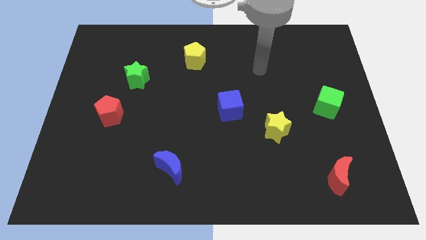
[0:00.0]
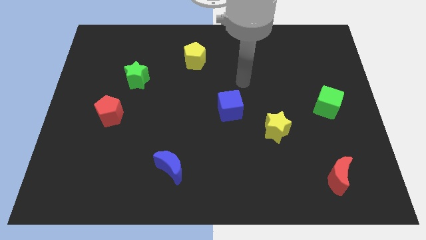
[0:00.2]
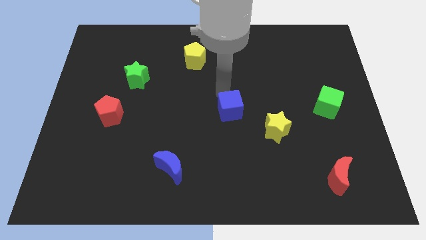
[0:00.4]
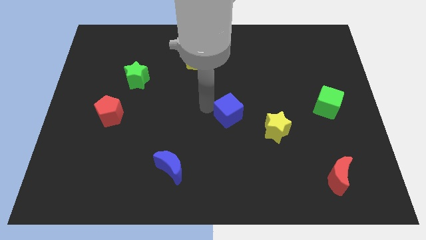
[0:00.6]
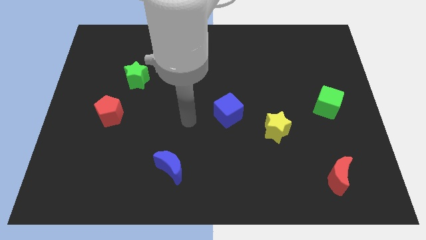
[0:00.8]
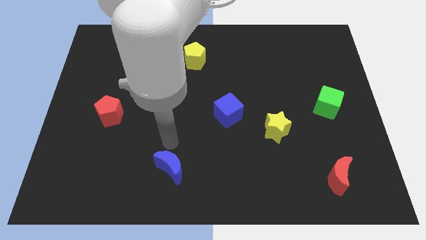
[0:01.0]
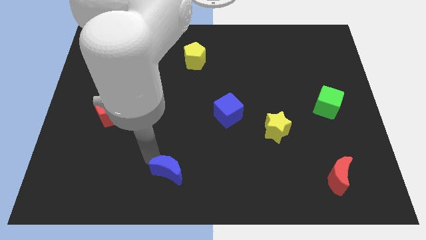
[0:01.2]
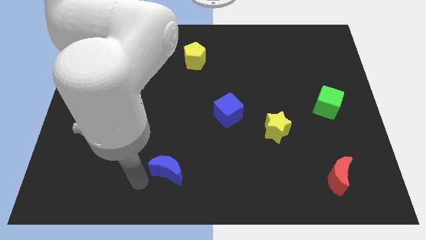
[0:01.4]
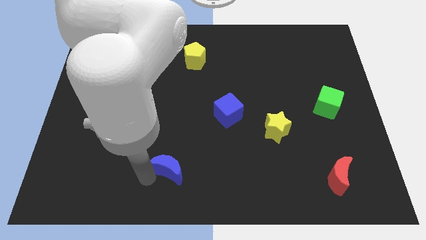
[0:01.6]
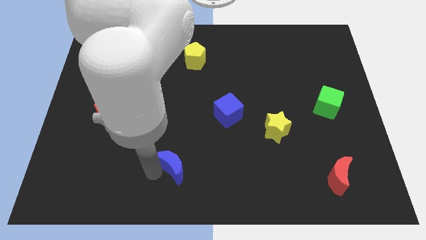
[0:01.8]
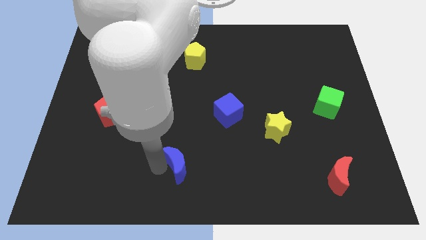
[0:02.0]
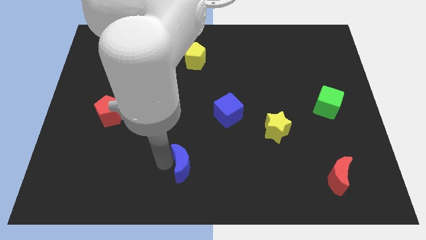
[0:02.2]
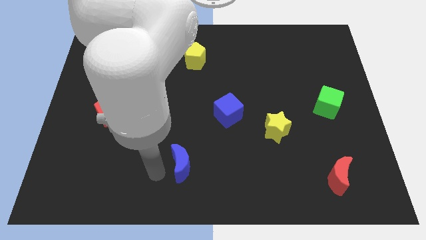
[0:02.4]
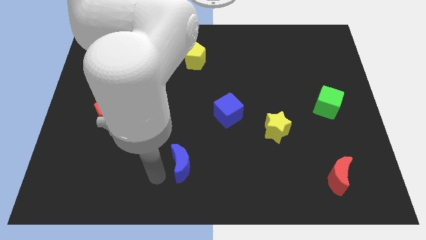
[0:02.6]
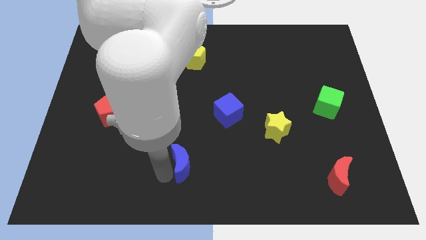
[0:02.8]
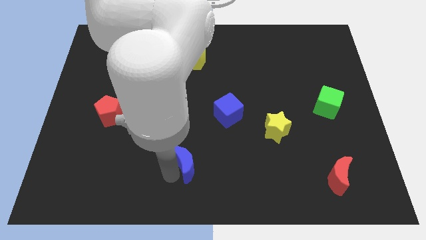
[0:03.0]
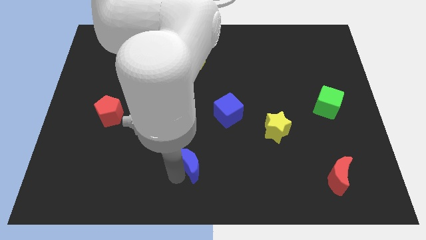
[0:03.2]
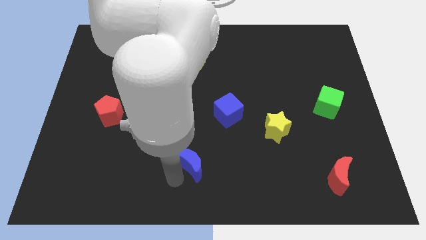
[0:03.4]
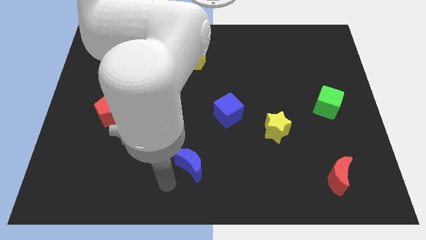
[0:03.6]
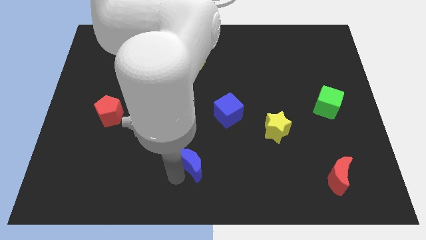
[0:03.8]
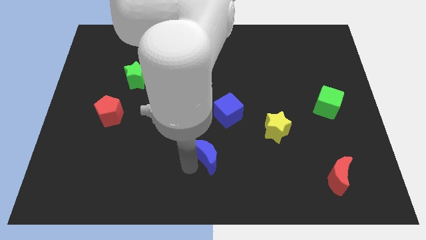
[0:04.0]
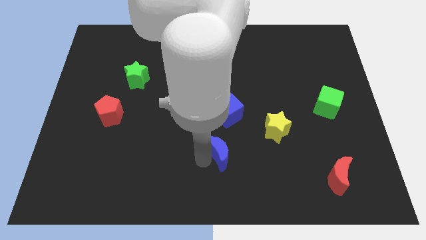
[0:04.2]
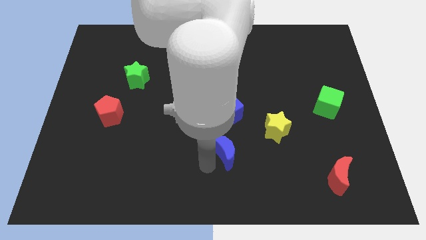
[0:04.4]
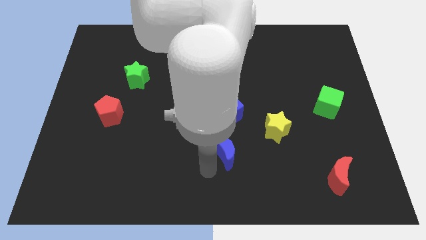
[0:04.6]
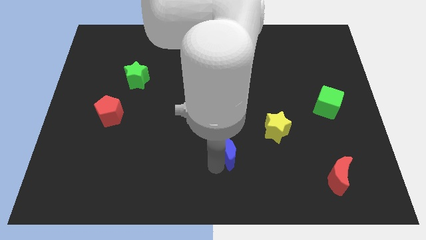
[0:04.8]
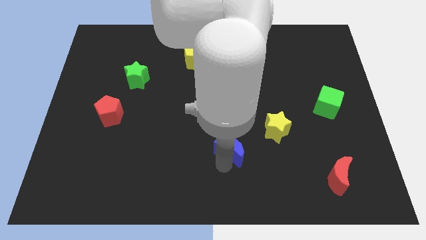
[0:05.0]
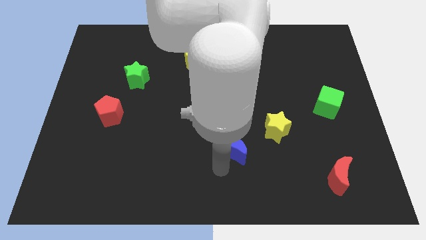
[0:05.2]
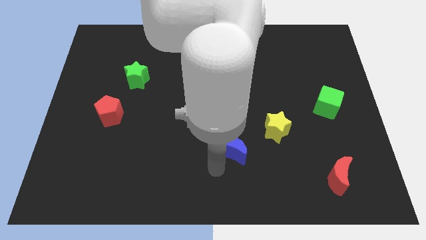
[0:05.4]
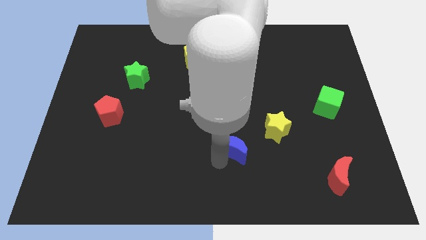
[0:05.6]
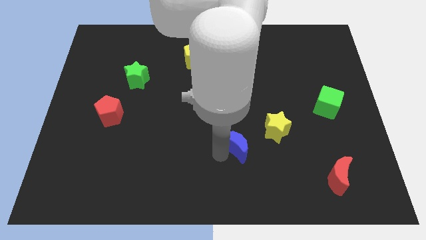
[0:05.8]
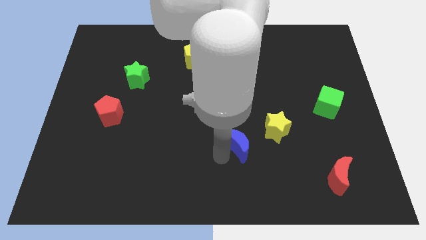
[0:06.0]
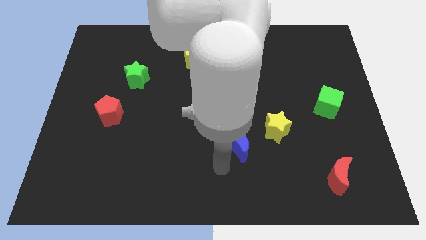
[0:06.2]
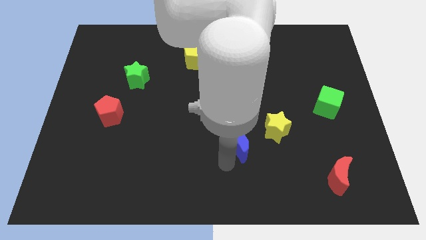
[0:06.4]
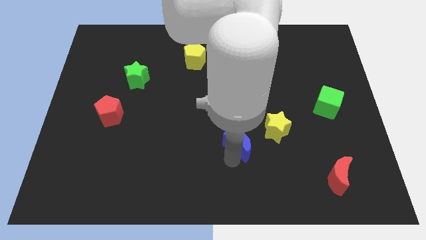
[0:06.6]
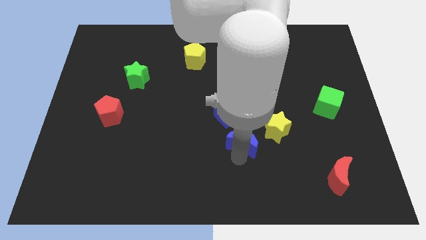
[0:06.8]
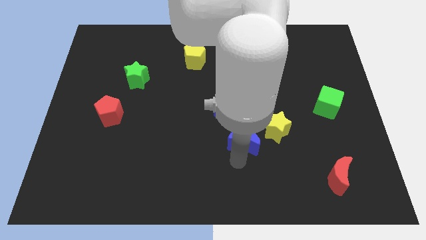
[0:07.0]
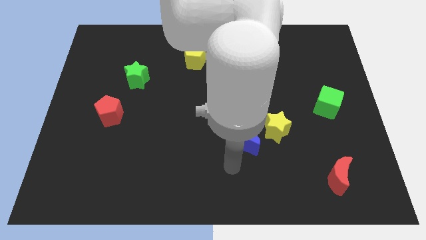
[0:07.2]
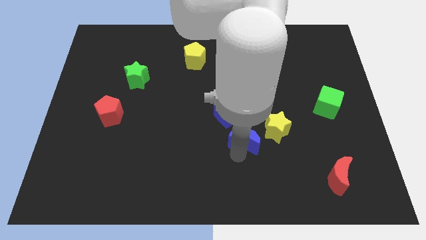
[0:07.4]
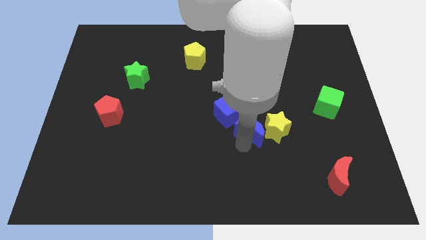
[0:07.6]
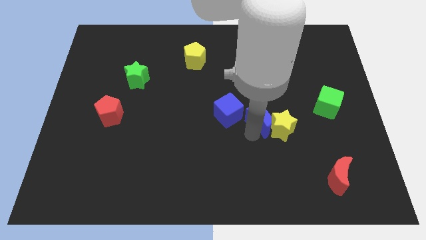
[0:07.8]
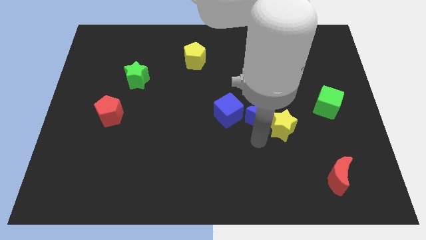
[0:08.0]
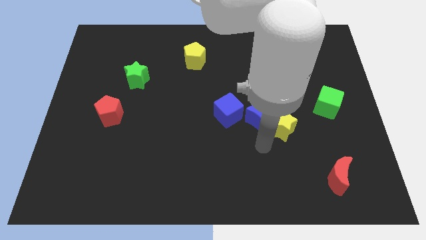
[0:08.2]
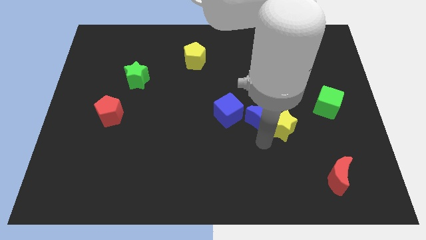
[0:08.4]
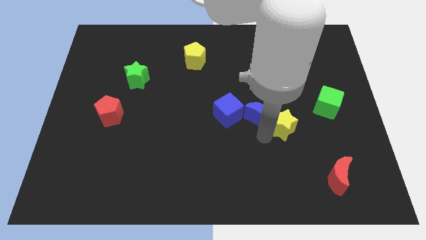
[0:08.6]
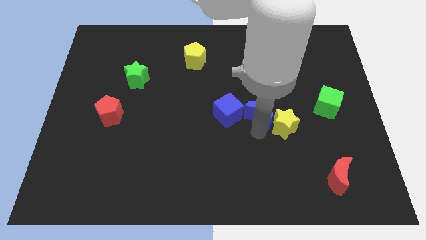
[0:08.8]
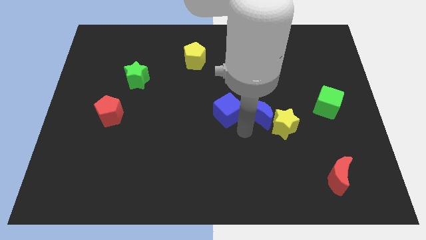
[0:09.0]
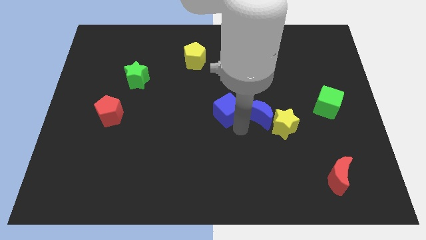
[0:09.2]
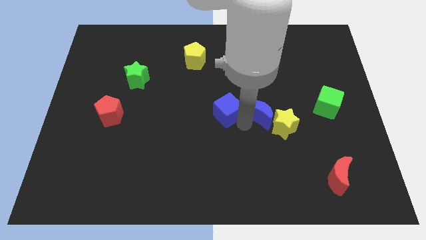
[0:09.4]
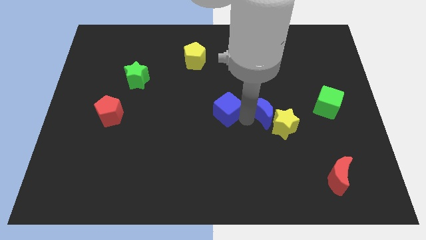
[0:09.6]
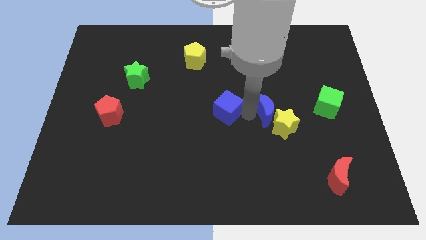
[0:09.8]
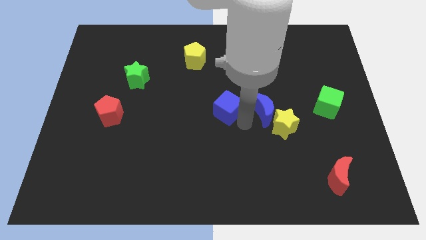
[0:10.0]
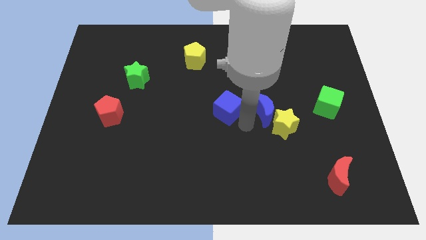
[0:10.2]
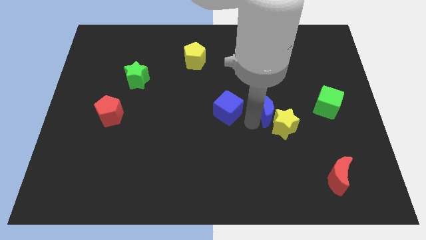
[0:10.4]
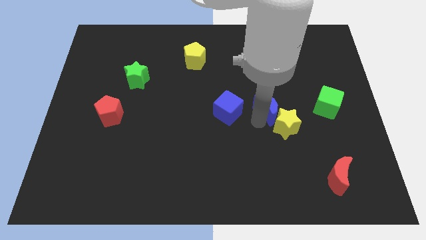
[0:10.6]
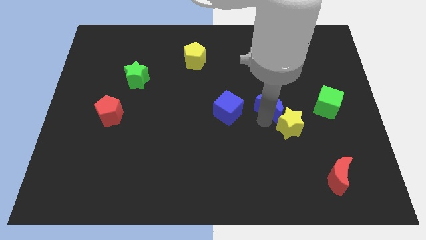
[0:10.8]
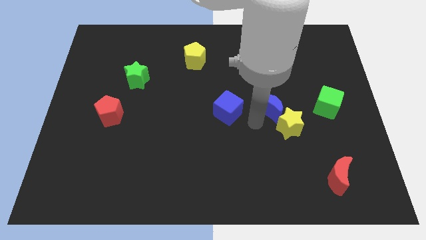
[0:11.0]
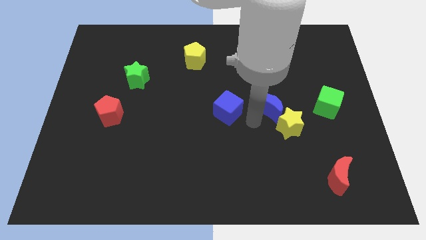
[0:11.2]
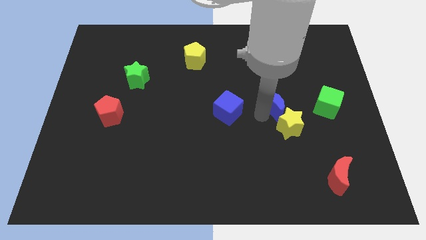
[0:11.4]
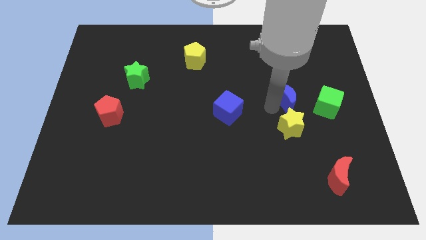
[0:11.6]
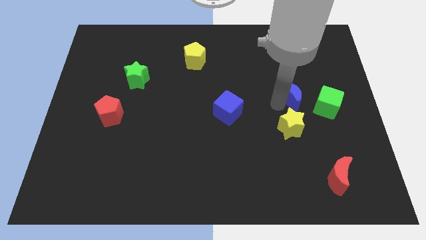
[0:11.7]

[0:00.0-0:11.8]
move the blue moon to the top left side of the green cube
